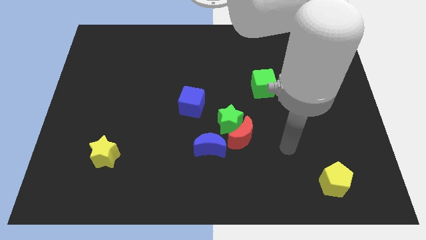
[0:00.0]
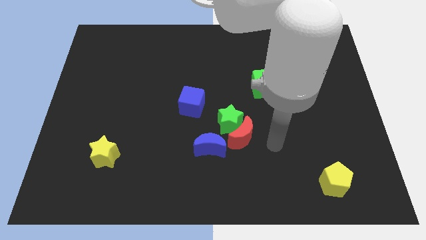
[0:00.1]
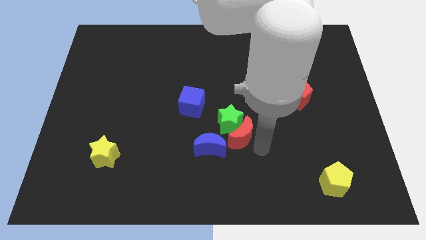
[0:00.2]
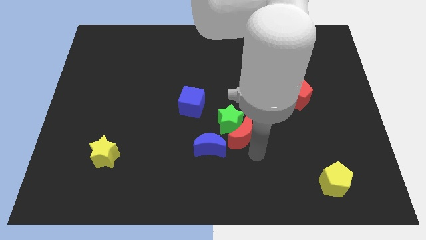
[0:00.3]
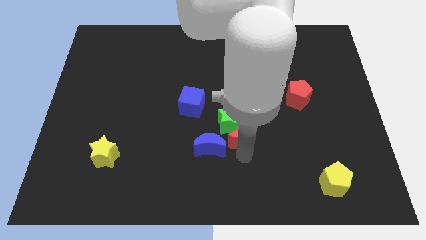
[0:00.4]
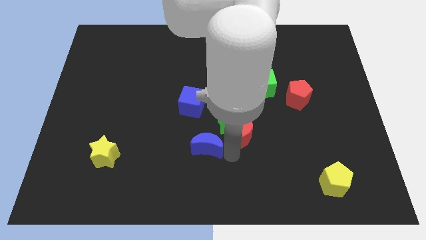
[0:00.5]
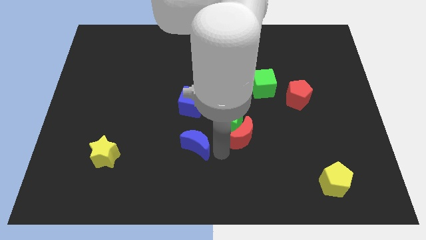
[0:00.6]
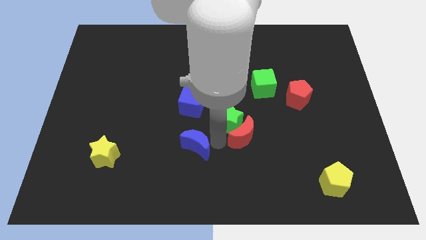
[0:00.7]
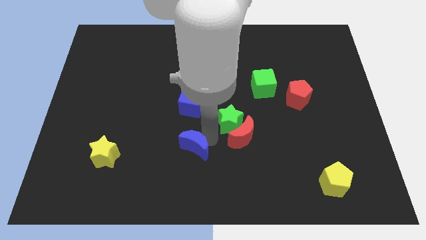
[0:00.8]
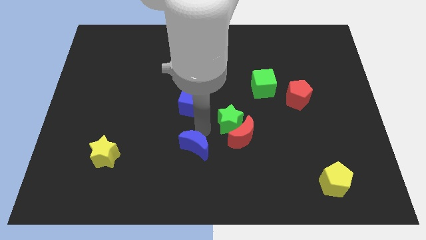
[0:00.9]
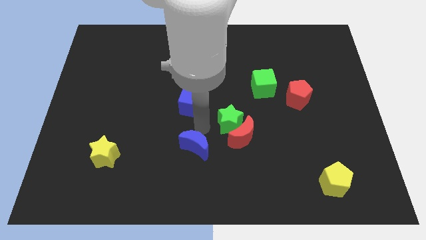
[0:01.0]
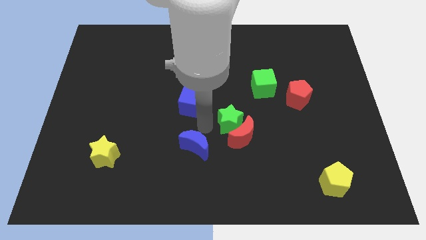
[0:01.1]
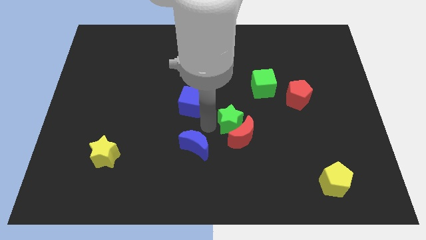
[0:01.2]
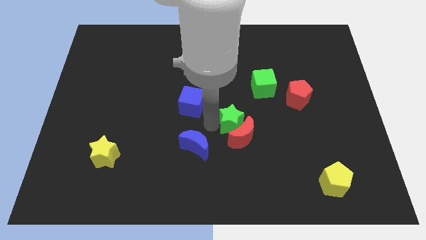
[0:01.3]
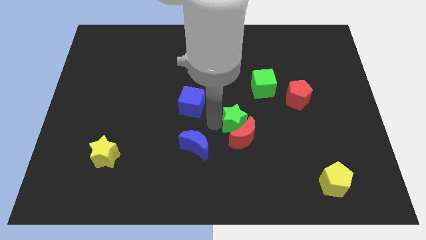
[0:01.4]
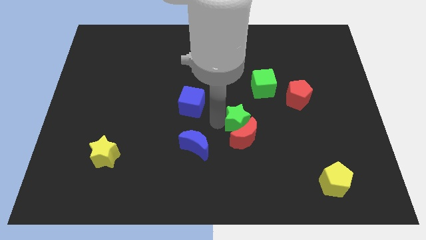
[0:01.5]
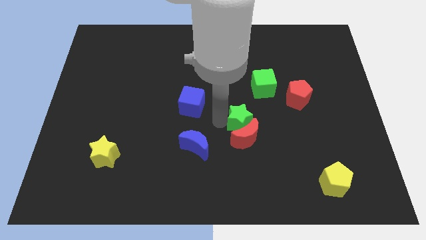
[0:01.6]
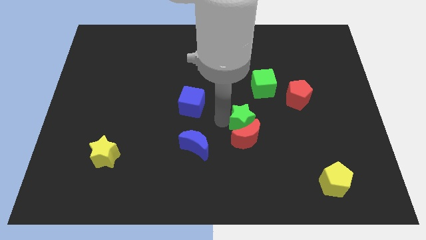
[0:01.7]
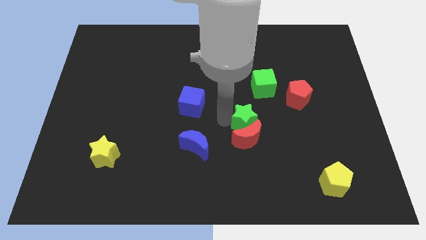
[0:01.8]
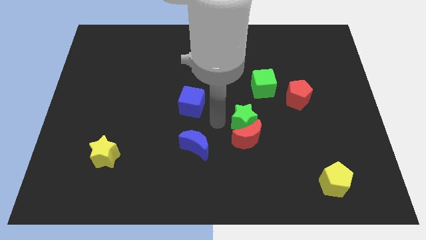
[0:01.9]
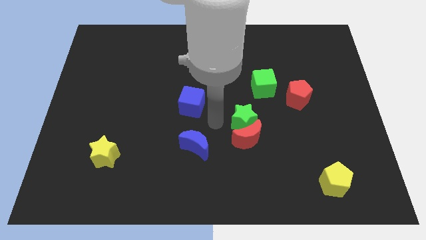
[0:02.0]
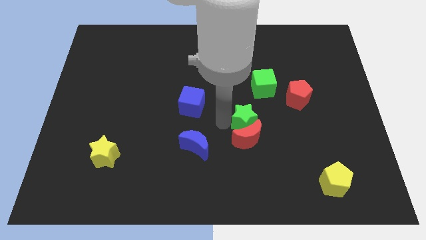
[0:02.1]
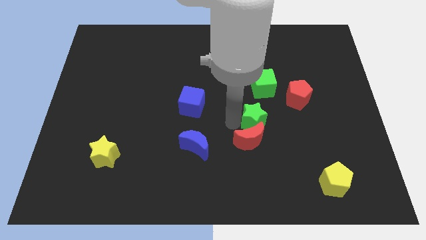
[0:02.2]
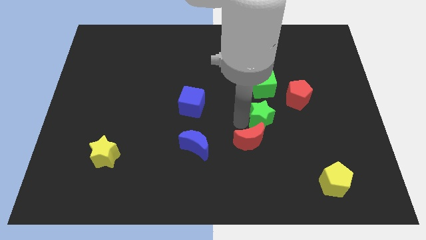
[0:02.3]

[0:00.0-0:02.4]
slightly push the green star to the right

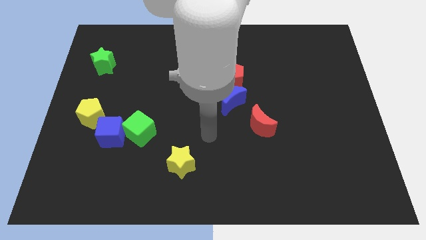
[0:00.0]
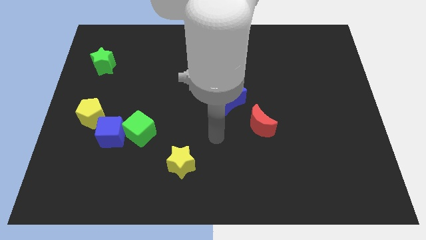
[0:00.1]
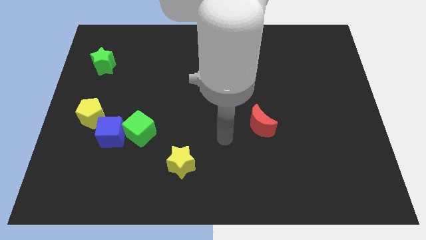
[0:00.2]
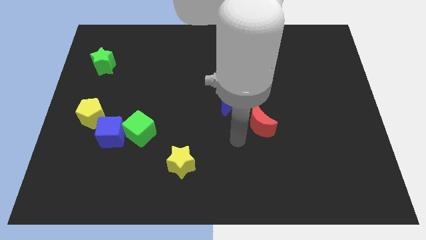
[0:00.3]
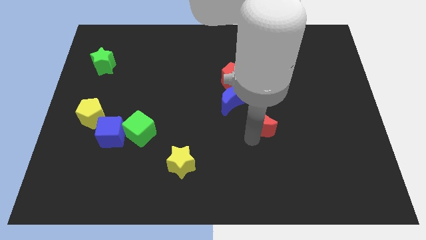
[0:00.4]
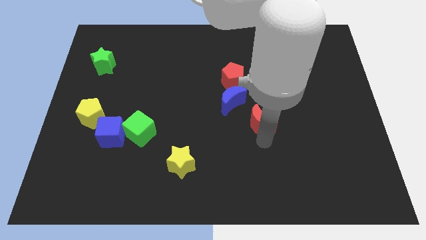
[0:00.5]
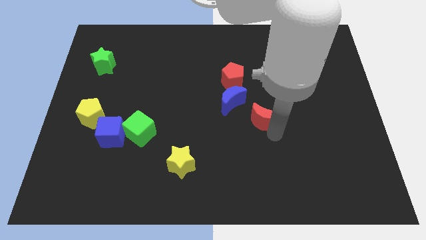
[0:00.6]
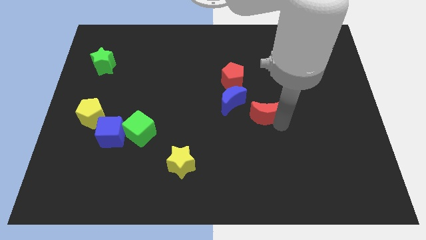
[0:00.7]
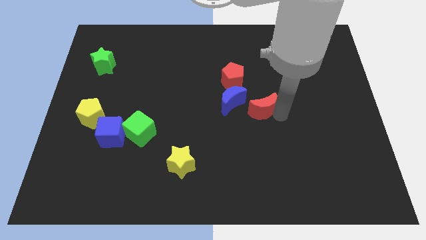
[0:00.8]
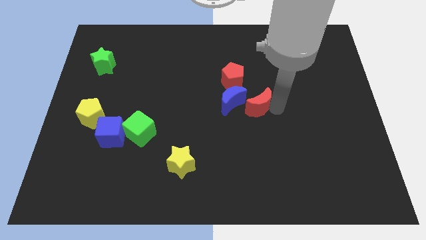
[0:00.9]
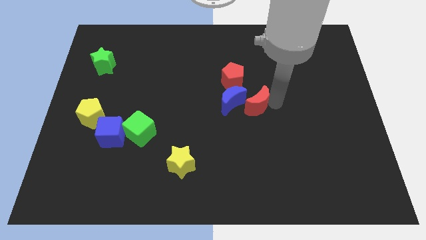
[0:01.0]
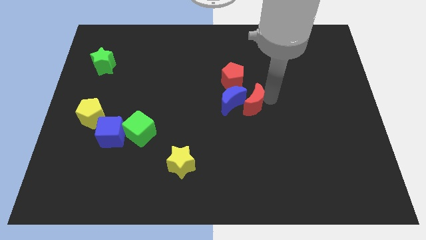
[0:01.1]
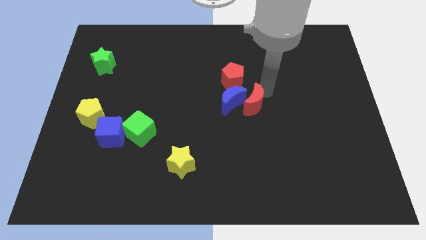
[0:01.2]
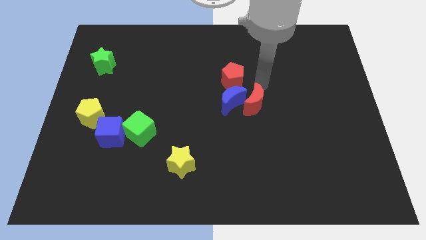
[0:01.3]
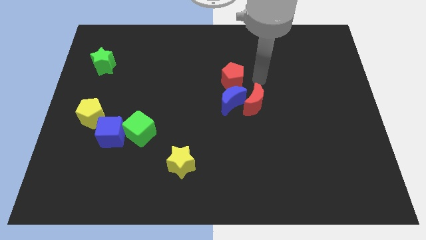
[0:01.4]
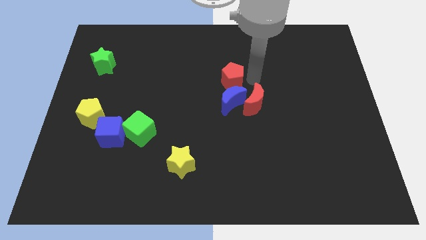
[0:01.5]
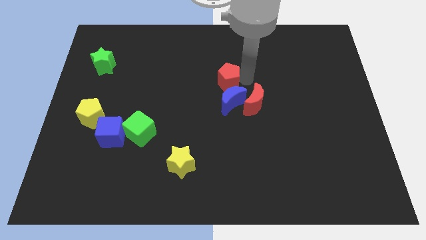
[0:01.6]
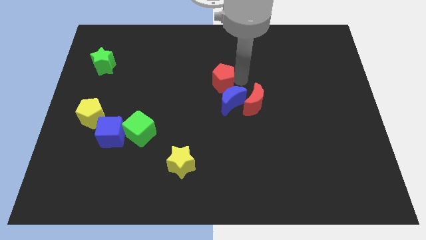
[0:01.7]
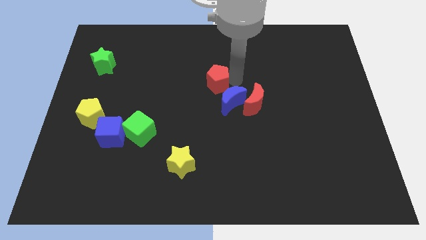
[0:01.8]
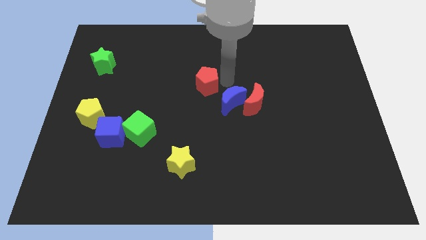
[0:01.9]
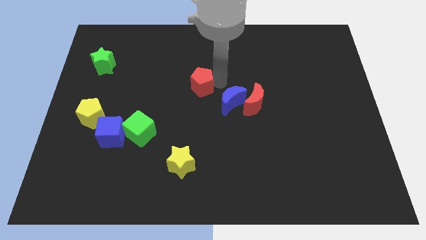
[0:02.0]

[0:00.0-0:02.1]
slightly push the red pentagon to the left

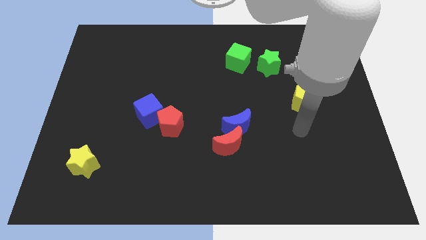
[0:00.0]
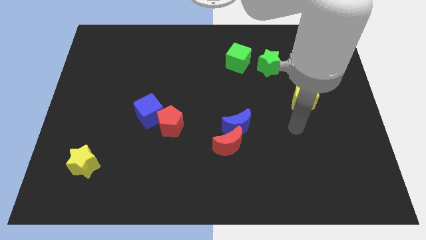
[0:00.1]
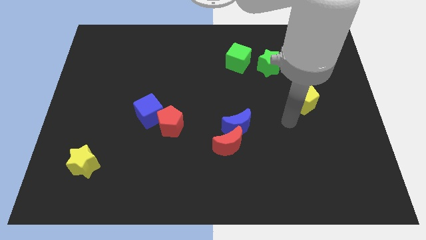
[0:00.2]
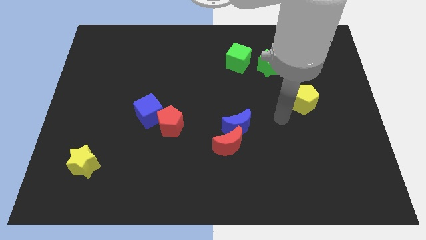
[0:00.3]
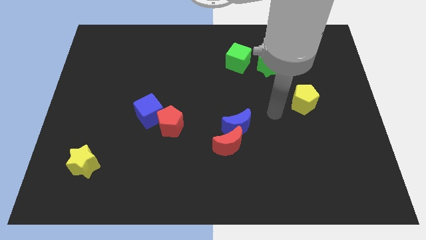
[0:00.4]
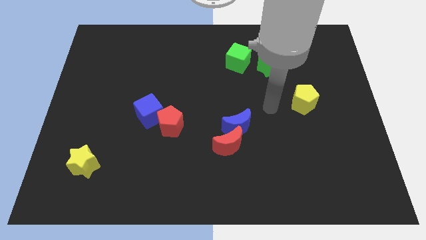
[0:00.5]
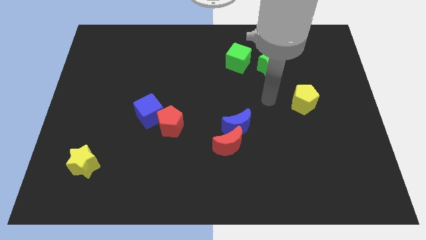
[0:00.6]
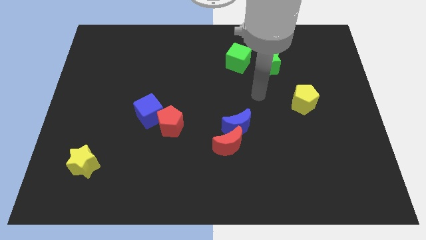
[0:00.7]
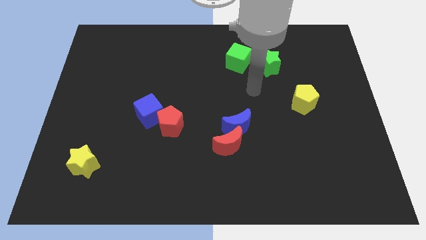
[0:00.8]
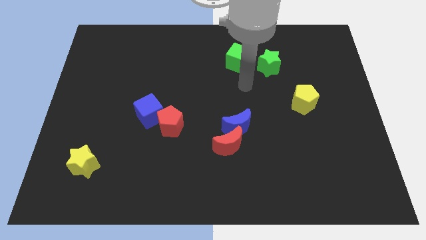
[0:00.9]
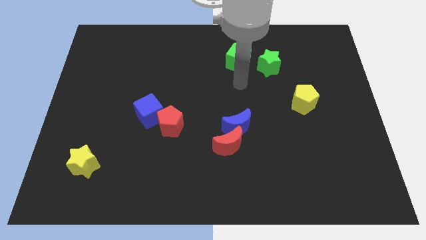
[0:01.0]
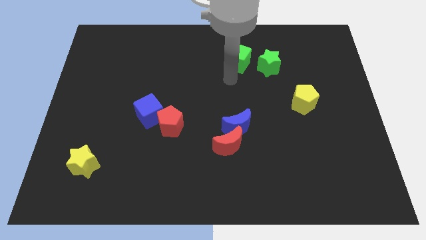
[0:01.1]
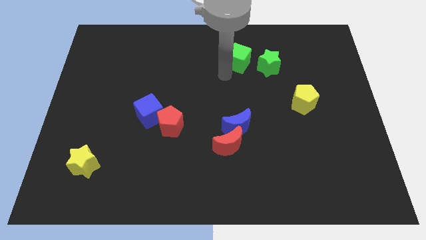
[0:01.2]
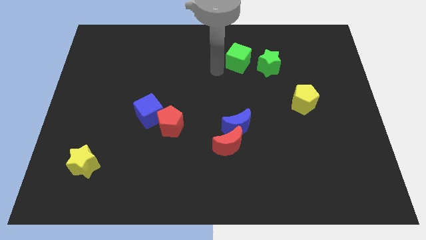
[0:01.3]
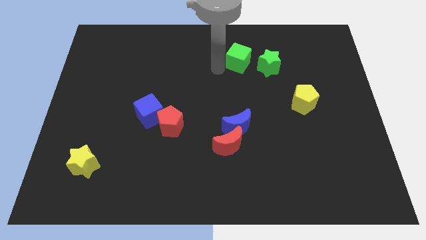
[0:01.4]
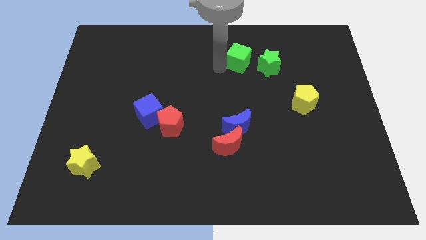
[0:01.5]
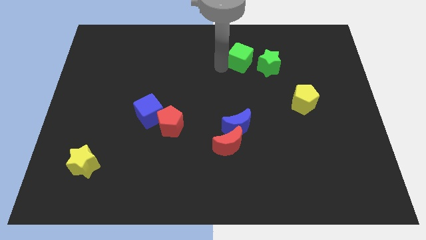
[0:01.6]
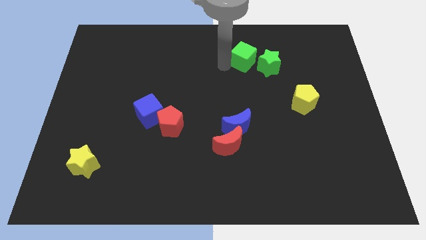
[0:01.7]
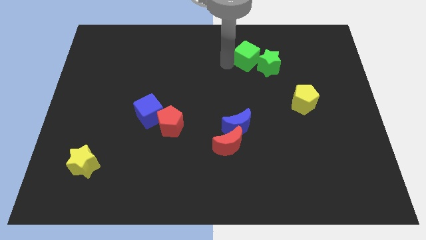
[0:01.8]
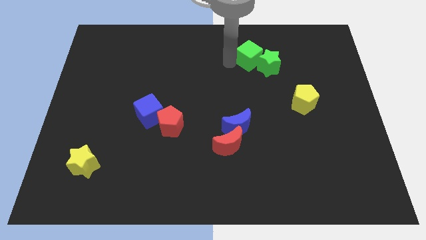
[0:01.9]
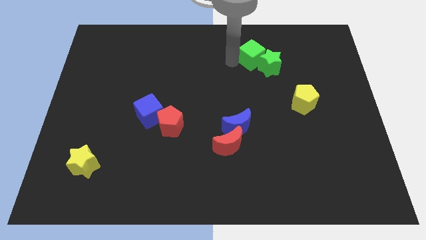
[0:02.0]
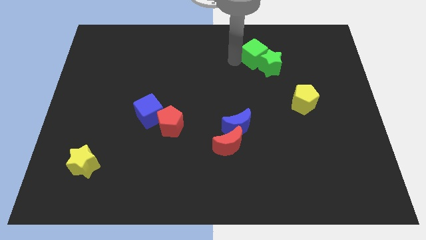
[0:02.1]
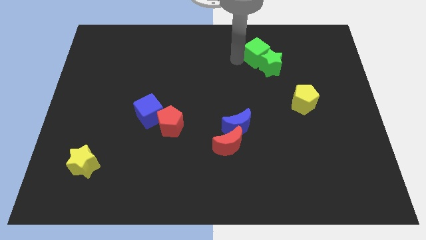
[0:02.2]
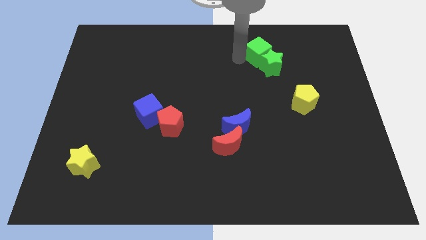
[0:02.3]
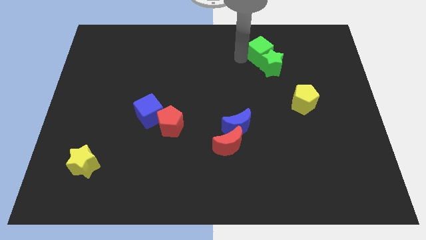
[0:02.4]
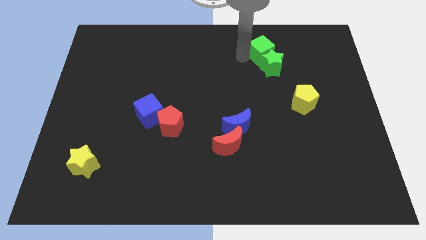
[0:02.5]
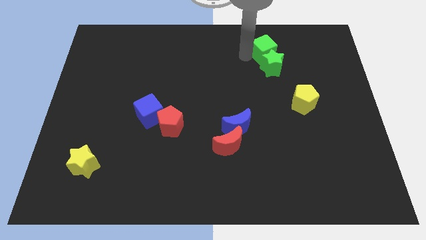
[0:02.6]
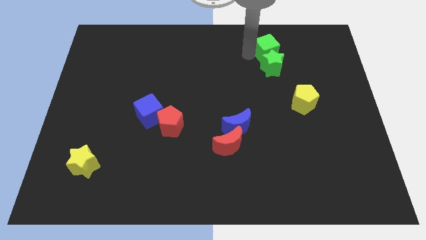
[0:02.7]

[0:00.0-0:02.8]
slide the green cube somewhat right

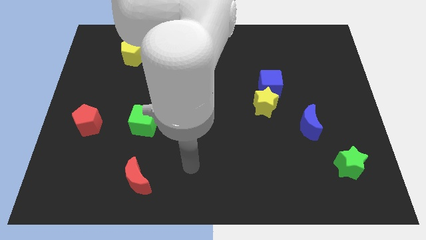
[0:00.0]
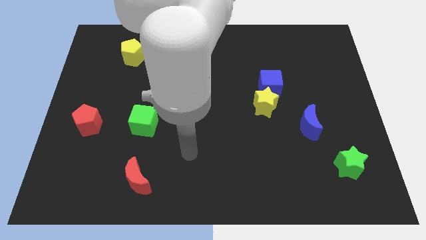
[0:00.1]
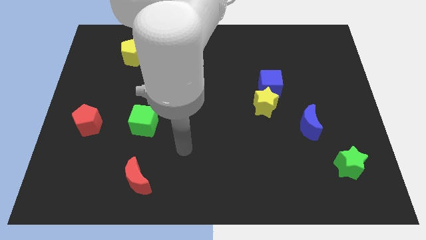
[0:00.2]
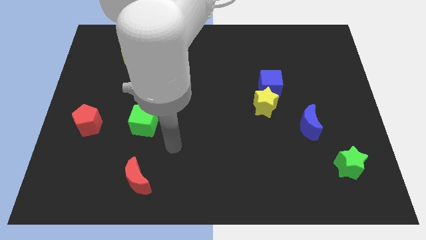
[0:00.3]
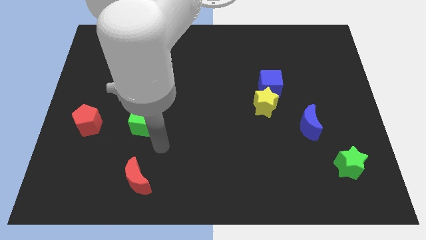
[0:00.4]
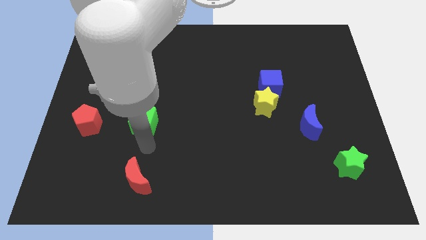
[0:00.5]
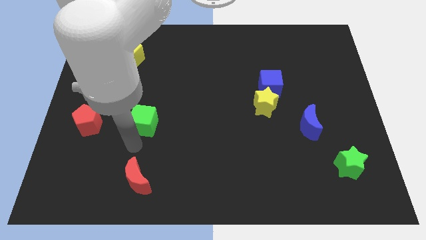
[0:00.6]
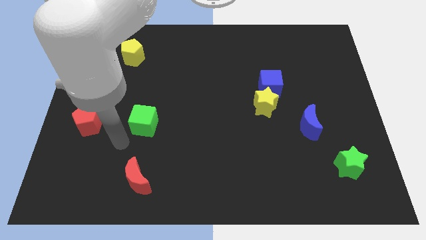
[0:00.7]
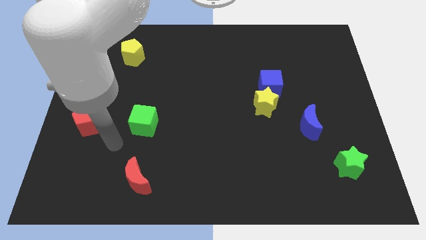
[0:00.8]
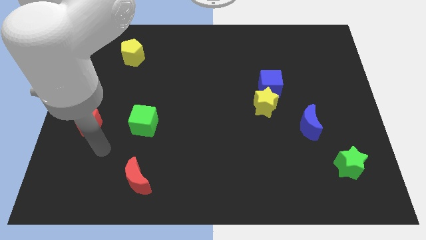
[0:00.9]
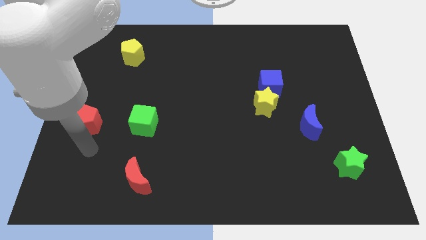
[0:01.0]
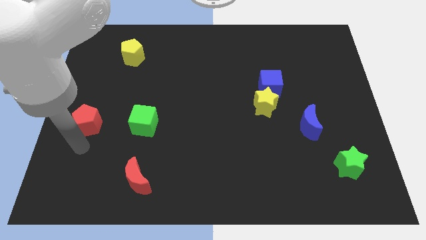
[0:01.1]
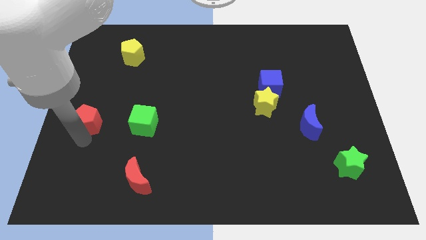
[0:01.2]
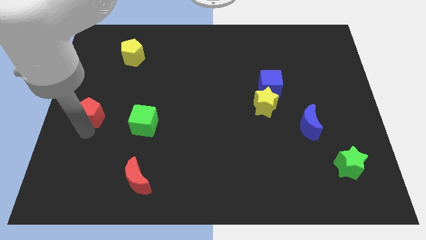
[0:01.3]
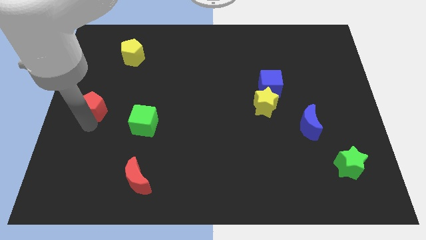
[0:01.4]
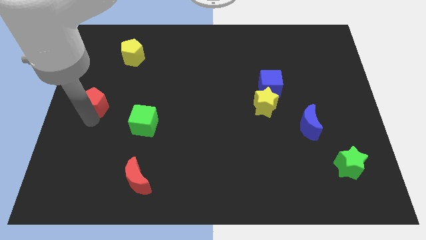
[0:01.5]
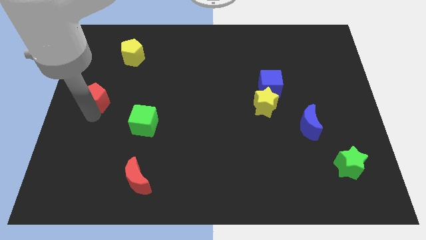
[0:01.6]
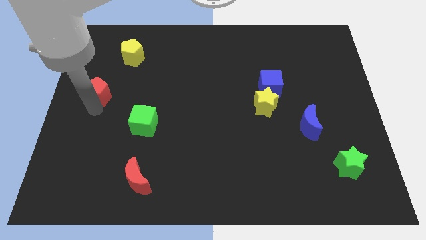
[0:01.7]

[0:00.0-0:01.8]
slide the red pentagon slightly up
